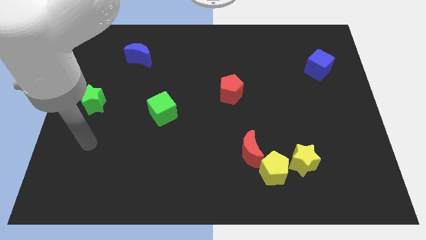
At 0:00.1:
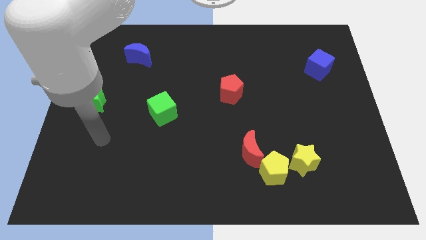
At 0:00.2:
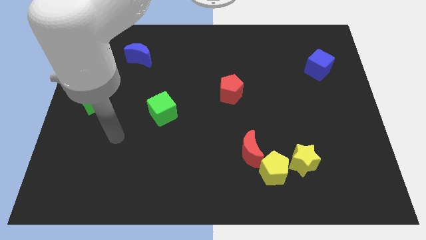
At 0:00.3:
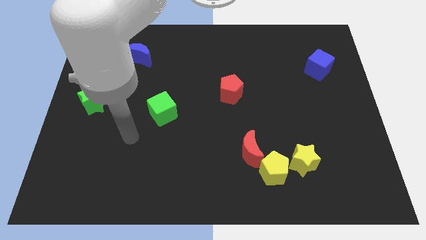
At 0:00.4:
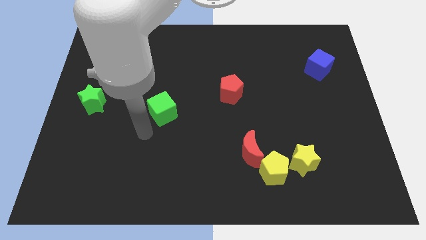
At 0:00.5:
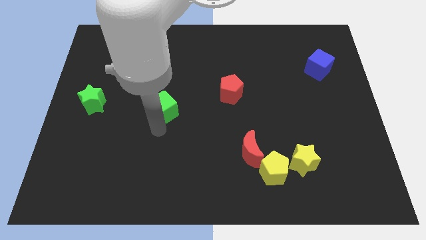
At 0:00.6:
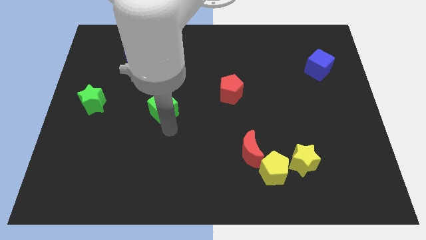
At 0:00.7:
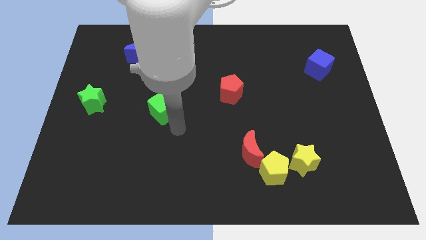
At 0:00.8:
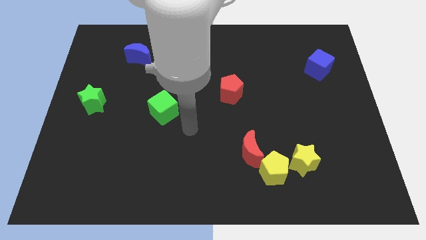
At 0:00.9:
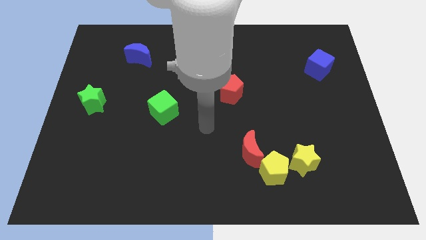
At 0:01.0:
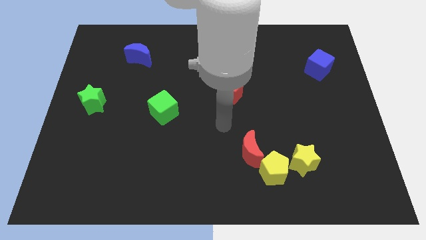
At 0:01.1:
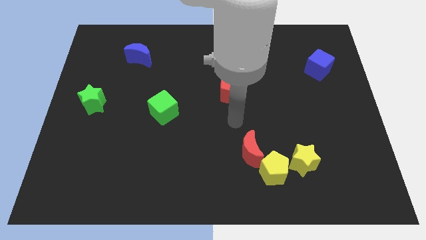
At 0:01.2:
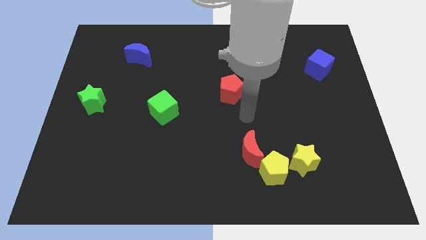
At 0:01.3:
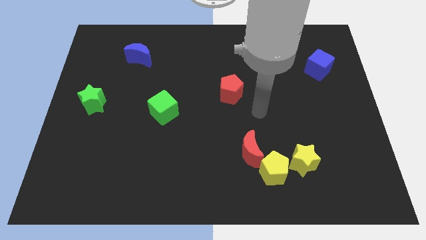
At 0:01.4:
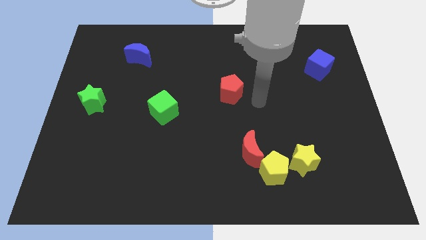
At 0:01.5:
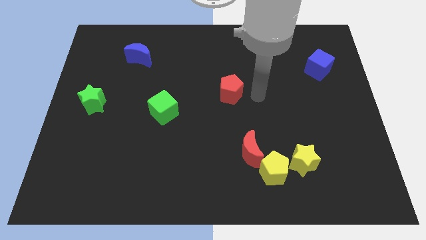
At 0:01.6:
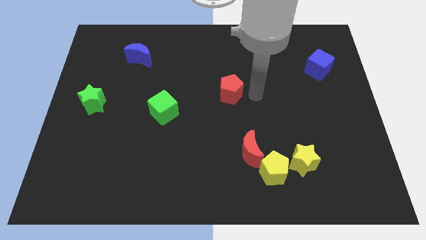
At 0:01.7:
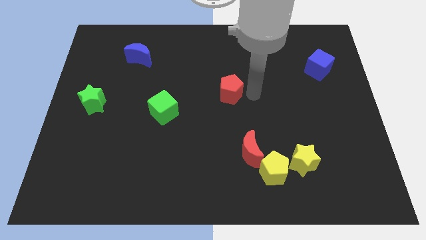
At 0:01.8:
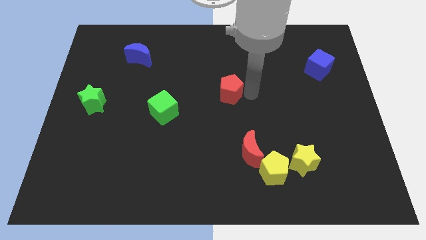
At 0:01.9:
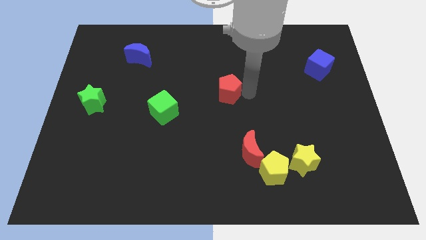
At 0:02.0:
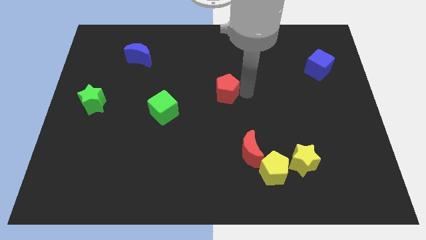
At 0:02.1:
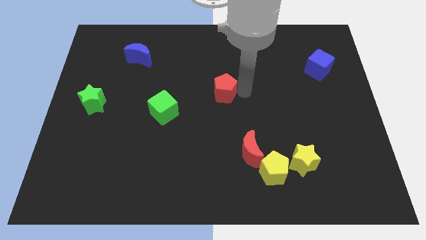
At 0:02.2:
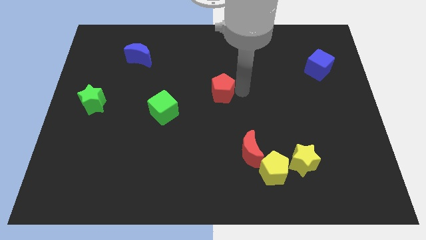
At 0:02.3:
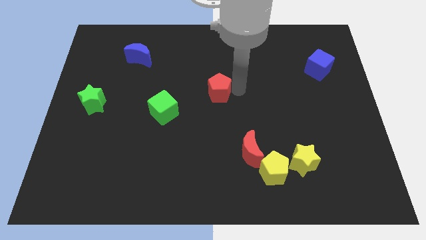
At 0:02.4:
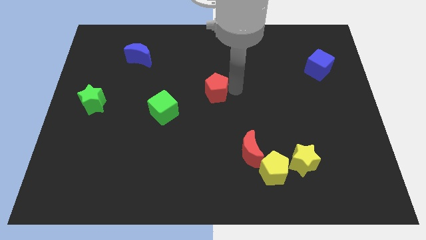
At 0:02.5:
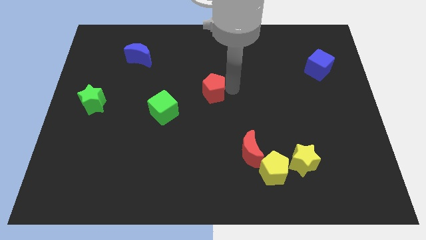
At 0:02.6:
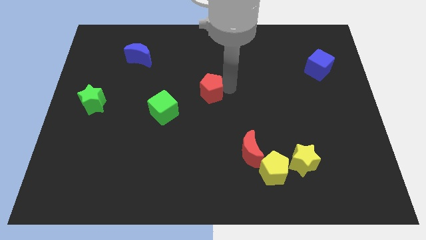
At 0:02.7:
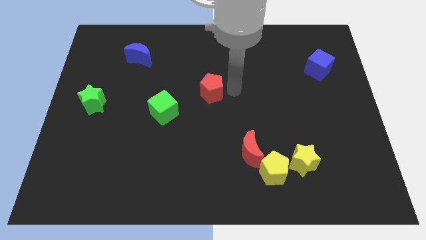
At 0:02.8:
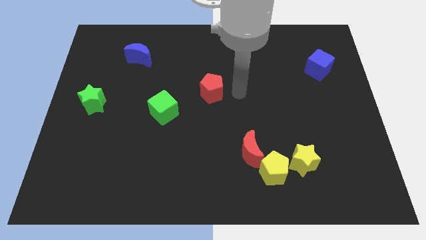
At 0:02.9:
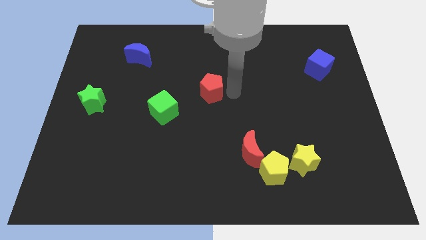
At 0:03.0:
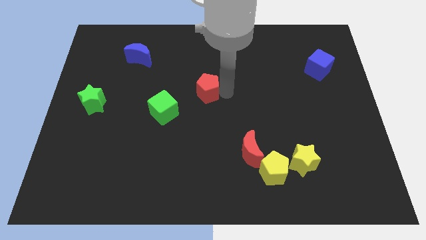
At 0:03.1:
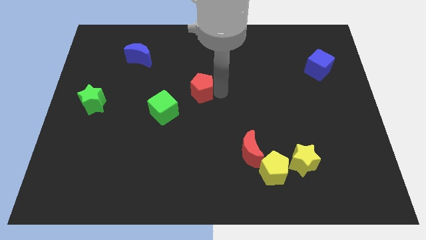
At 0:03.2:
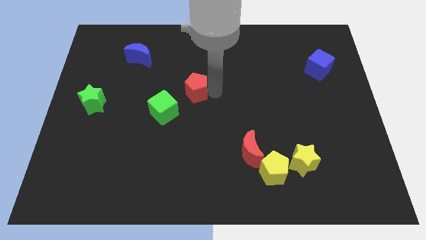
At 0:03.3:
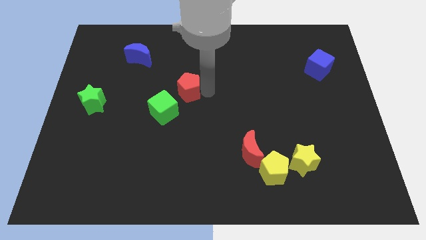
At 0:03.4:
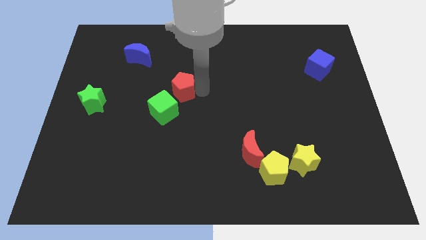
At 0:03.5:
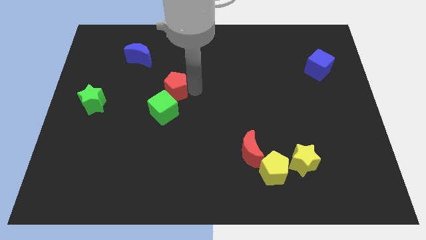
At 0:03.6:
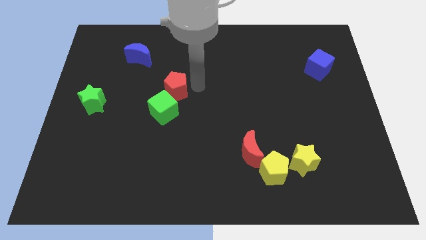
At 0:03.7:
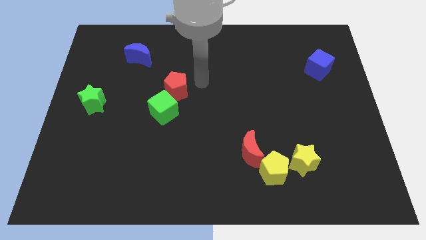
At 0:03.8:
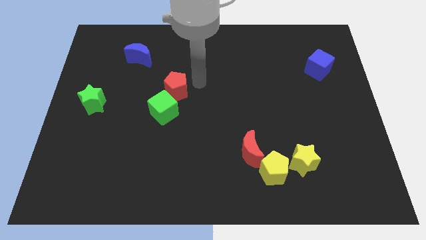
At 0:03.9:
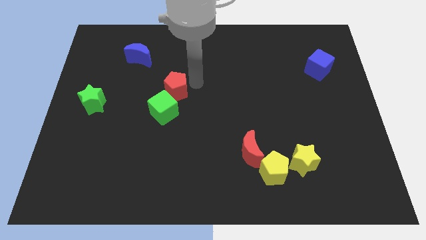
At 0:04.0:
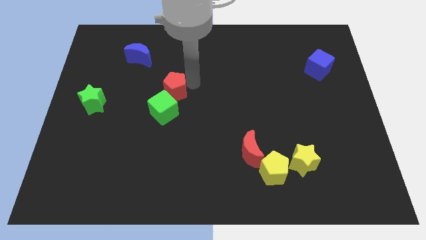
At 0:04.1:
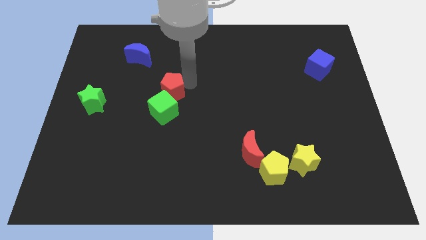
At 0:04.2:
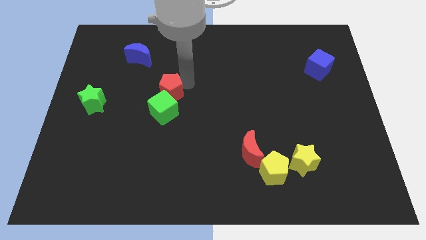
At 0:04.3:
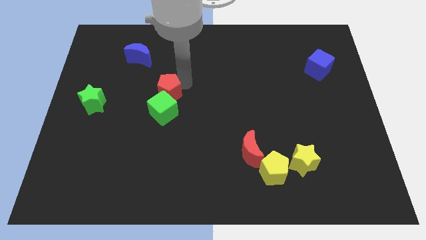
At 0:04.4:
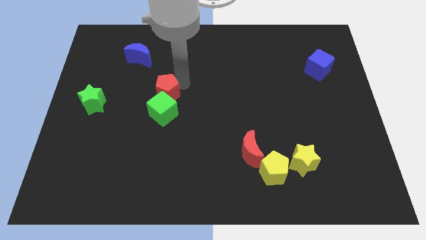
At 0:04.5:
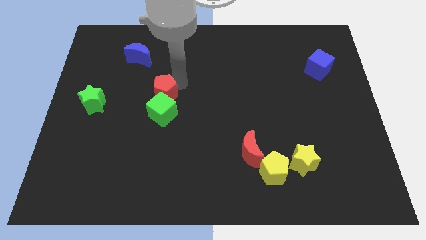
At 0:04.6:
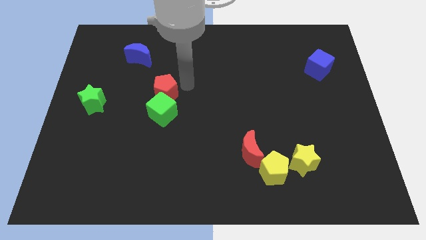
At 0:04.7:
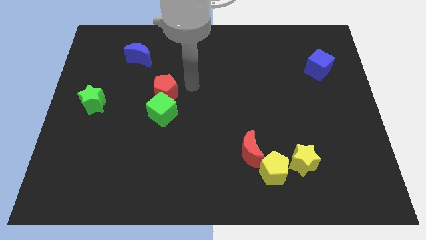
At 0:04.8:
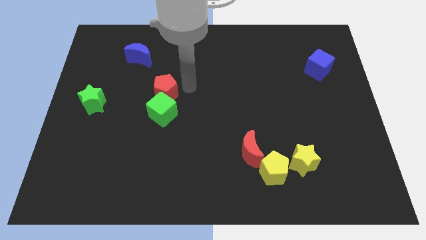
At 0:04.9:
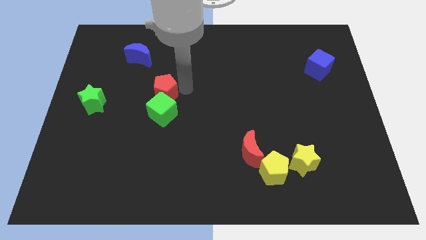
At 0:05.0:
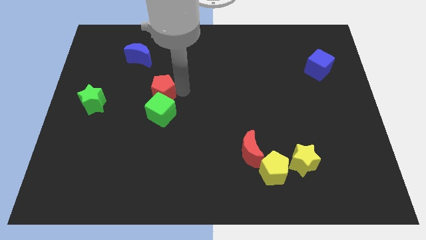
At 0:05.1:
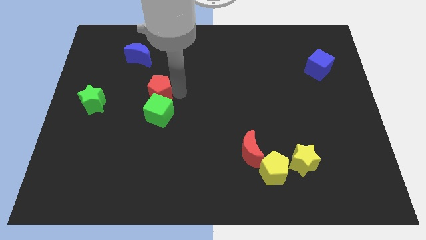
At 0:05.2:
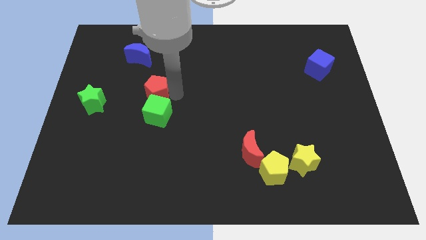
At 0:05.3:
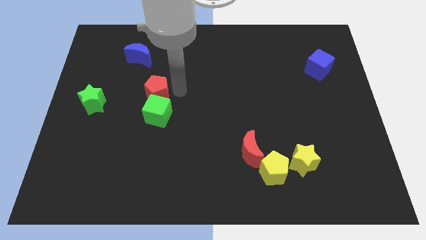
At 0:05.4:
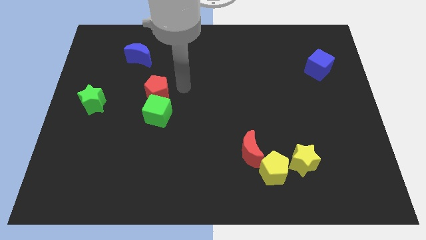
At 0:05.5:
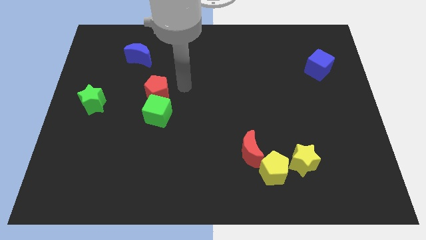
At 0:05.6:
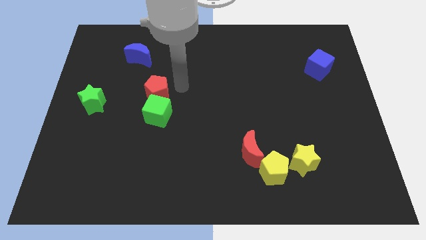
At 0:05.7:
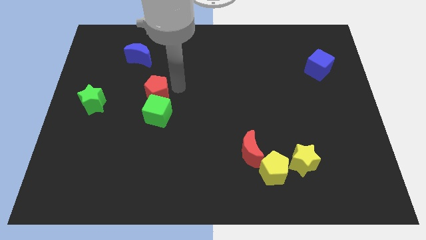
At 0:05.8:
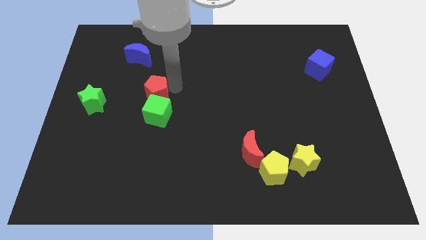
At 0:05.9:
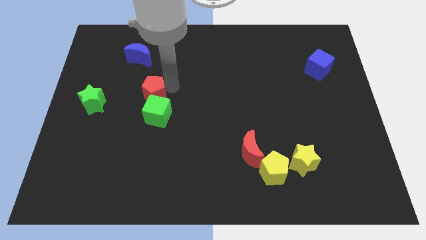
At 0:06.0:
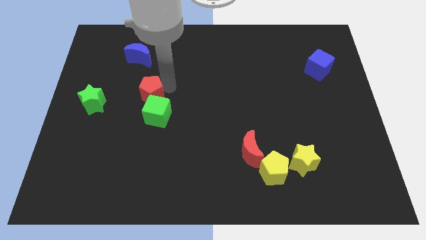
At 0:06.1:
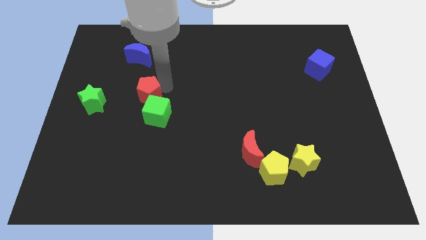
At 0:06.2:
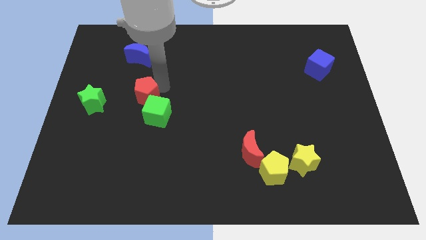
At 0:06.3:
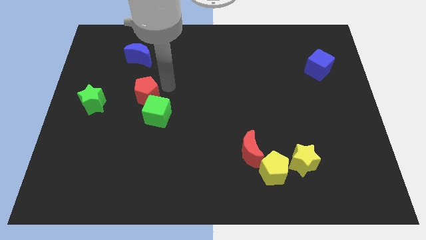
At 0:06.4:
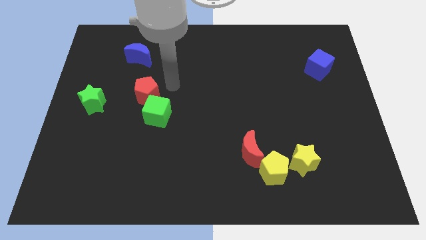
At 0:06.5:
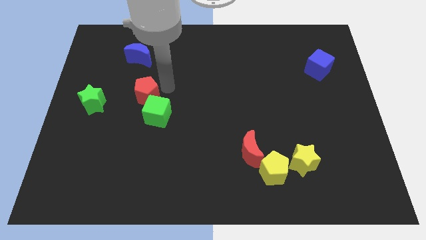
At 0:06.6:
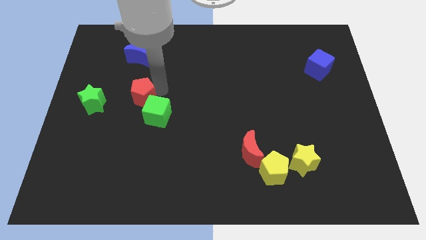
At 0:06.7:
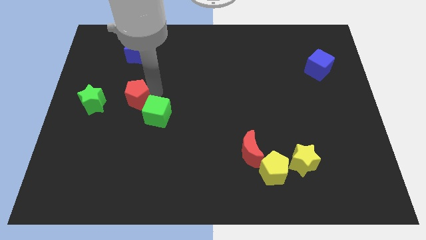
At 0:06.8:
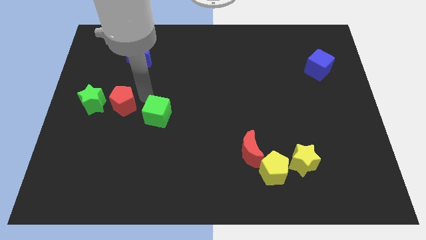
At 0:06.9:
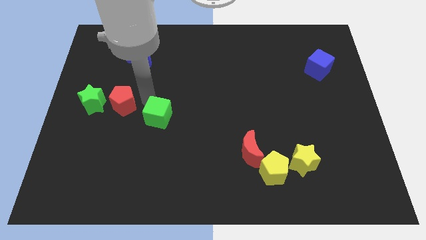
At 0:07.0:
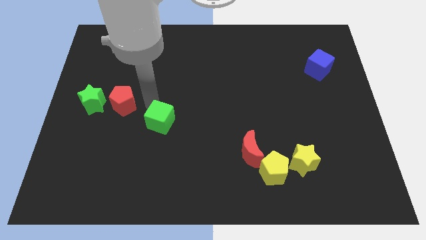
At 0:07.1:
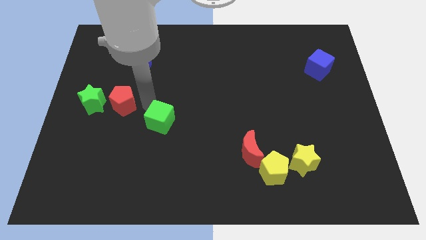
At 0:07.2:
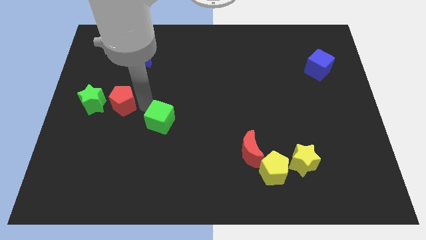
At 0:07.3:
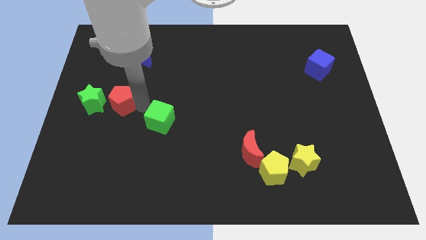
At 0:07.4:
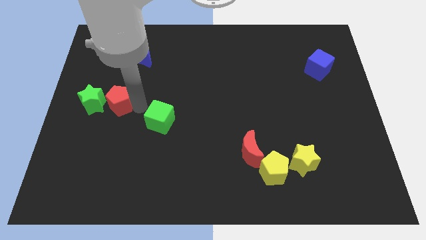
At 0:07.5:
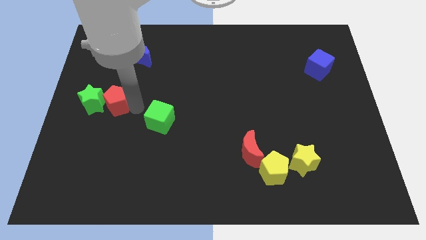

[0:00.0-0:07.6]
push the red pentagon close to the green star

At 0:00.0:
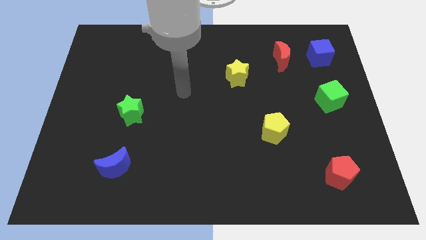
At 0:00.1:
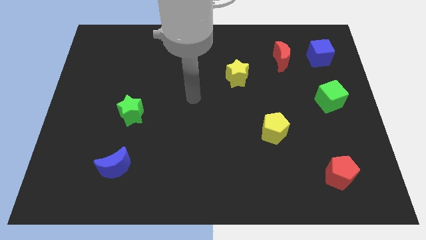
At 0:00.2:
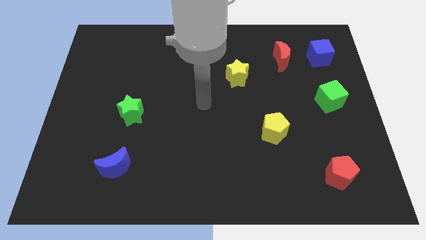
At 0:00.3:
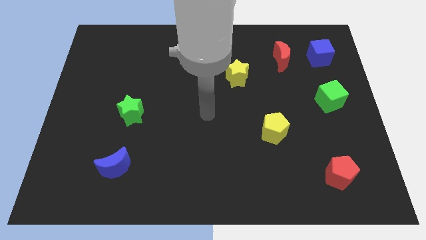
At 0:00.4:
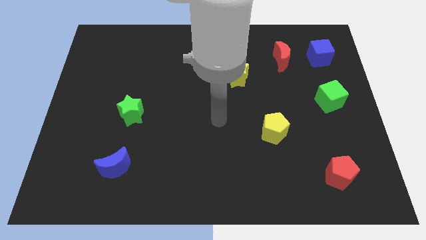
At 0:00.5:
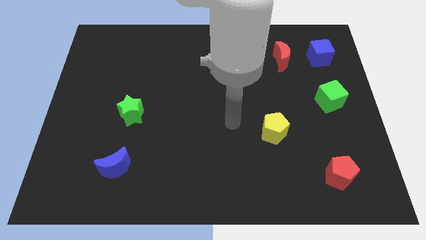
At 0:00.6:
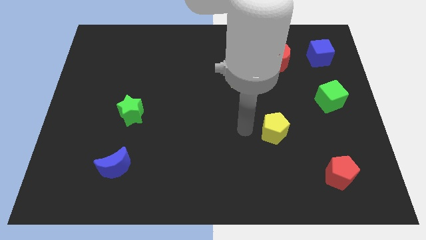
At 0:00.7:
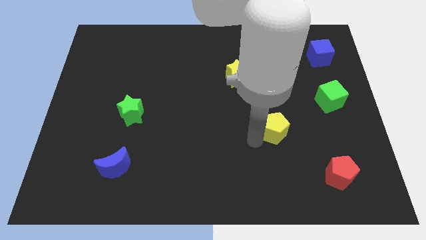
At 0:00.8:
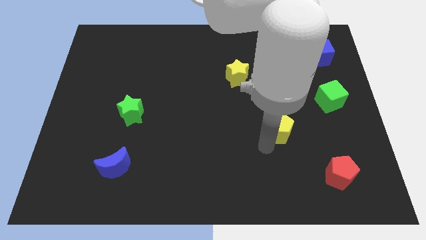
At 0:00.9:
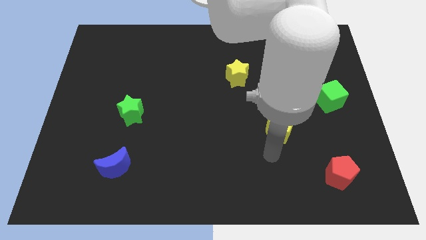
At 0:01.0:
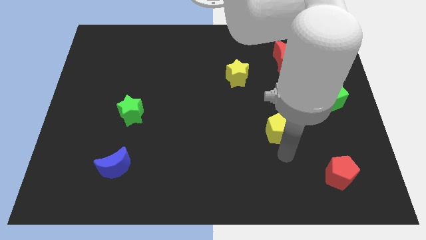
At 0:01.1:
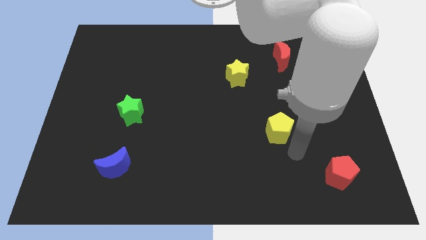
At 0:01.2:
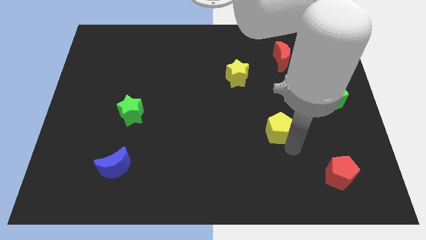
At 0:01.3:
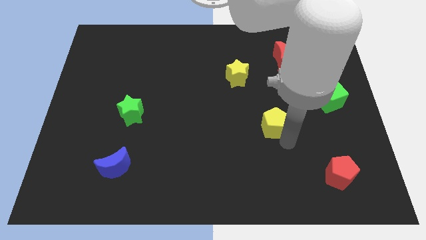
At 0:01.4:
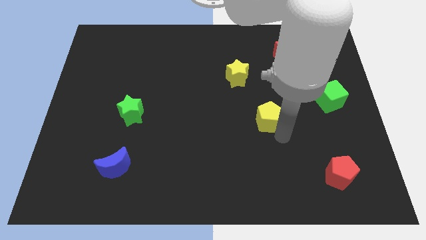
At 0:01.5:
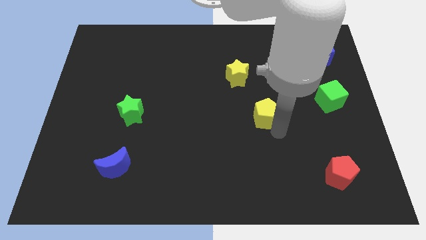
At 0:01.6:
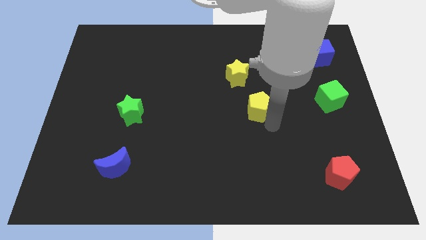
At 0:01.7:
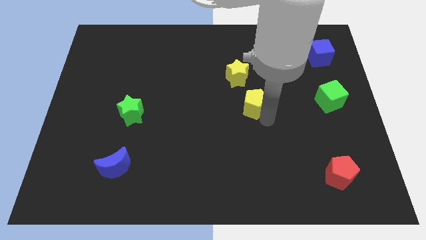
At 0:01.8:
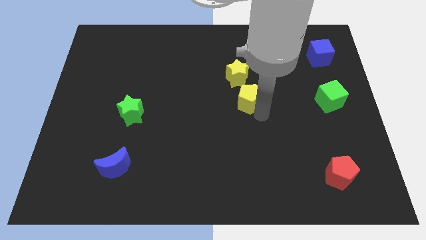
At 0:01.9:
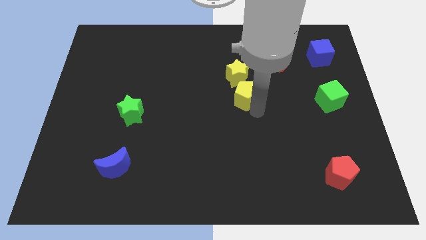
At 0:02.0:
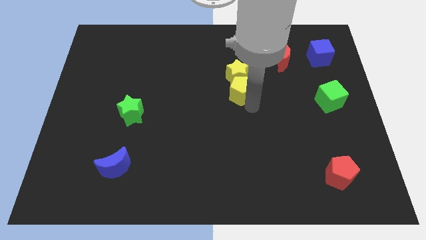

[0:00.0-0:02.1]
push the yellow pentagon next to the yellow star
